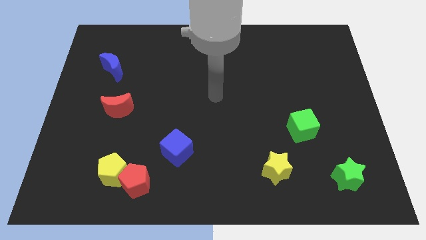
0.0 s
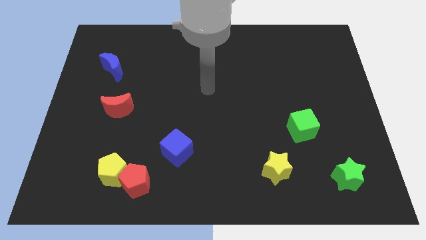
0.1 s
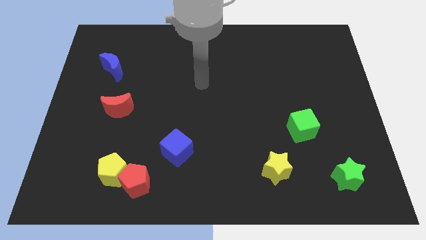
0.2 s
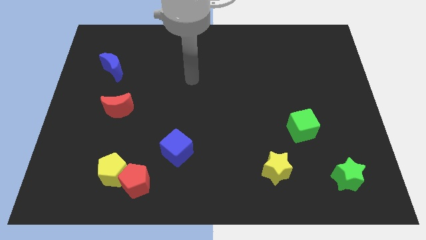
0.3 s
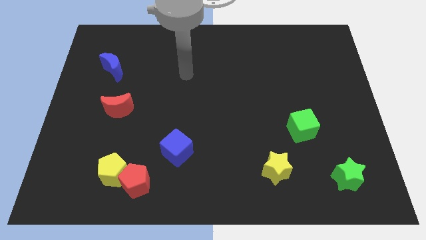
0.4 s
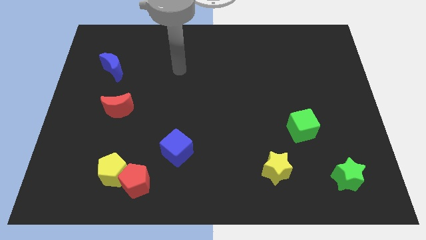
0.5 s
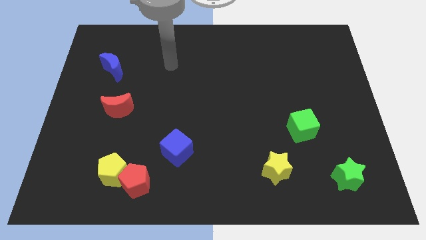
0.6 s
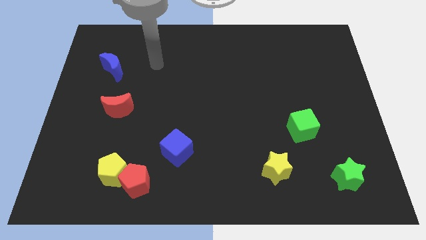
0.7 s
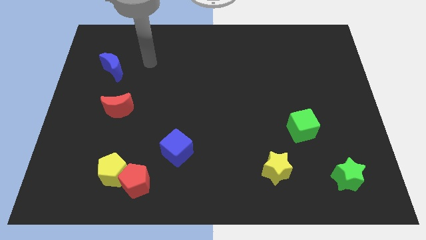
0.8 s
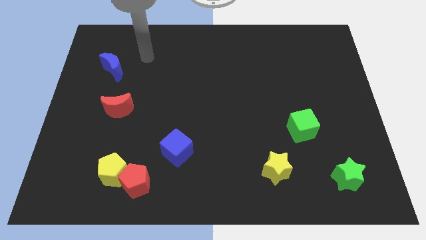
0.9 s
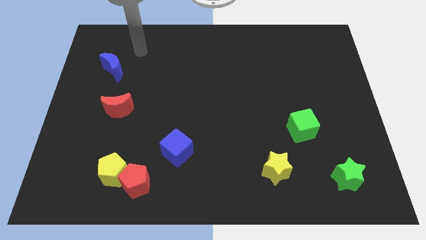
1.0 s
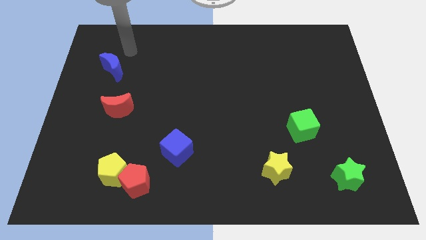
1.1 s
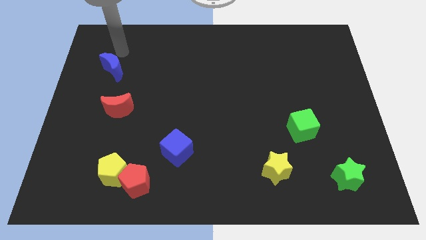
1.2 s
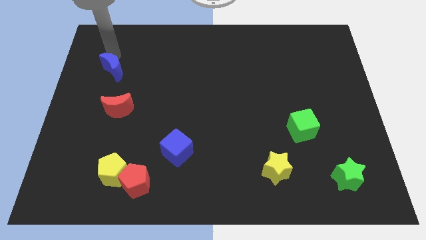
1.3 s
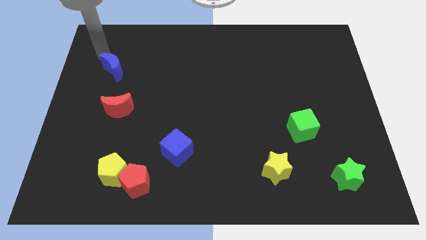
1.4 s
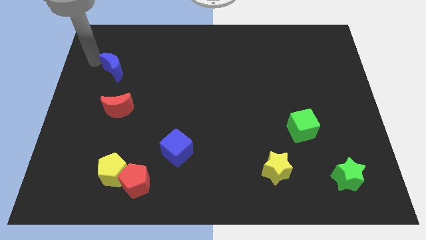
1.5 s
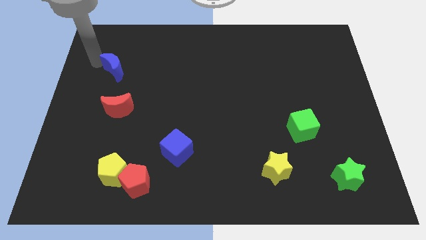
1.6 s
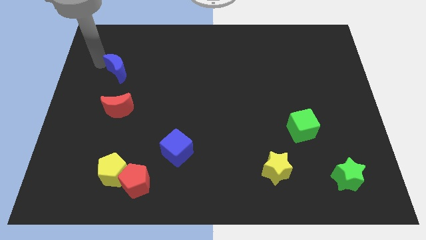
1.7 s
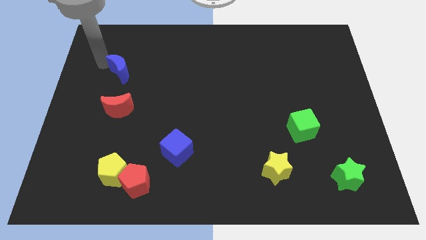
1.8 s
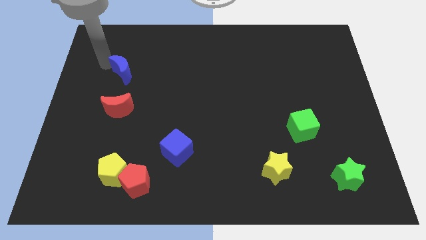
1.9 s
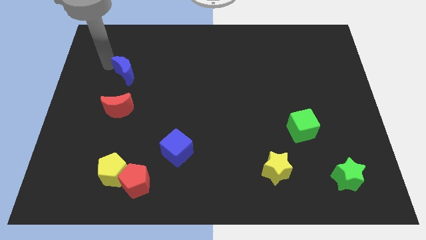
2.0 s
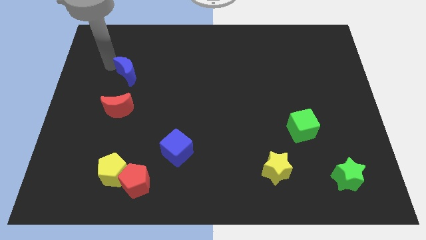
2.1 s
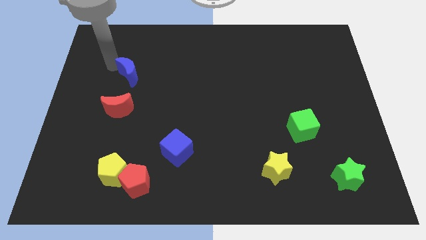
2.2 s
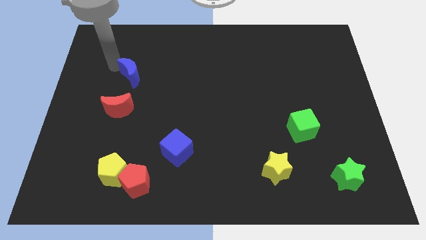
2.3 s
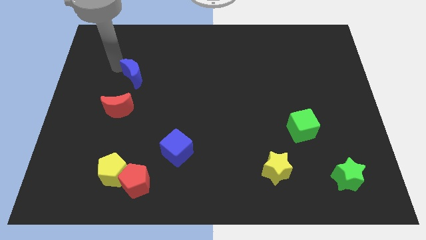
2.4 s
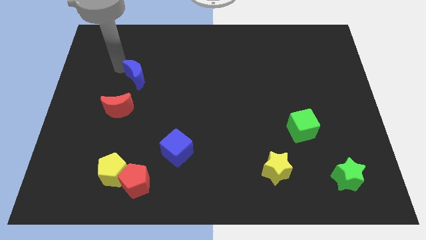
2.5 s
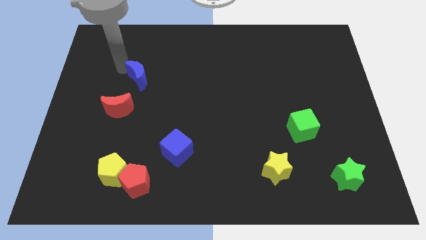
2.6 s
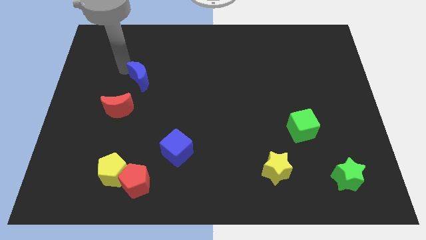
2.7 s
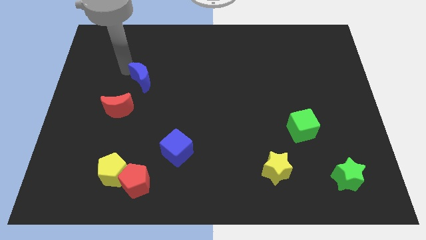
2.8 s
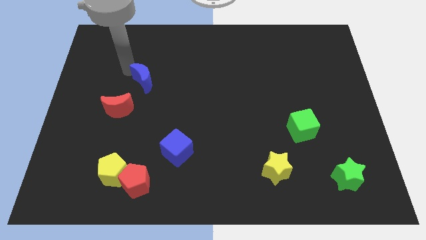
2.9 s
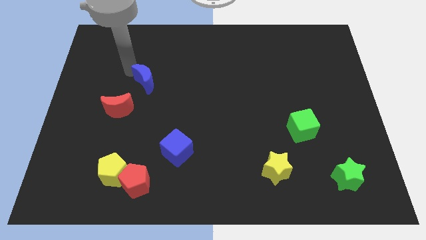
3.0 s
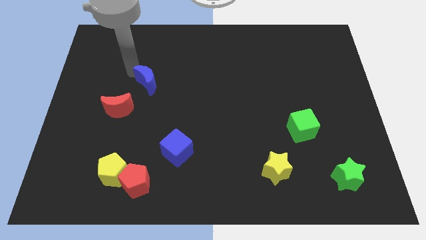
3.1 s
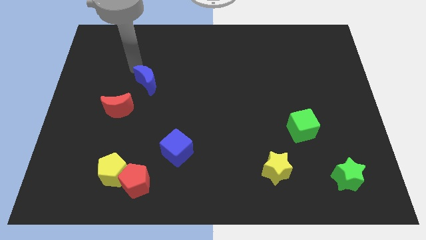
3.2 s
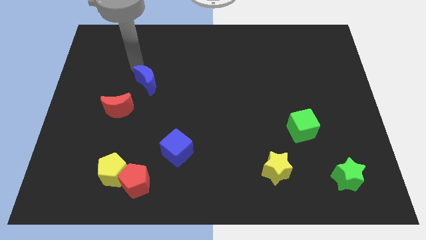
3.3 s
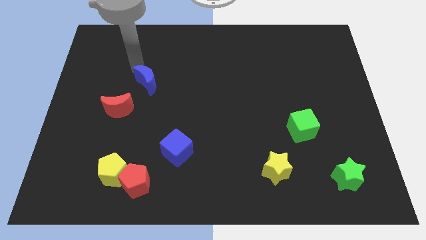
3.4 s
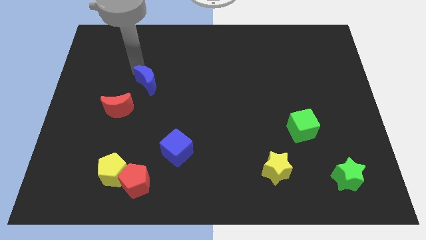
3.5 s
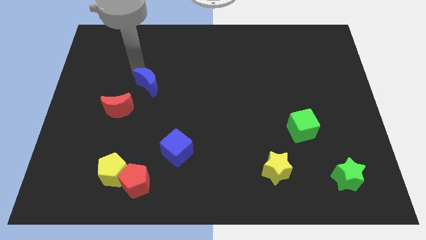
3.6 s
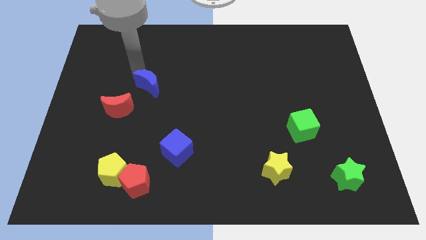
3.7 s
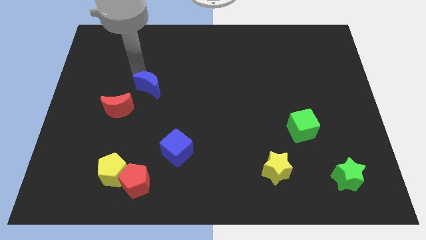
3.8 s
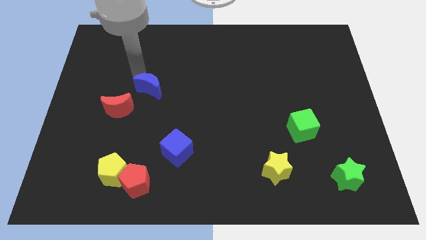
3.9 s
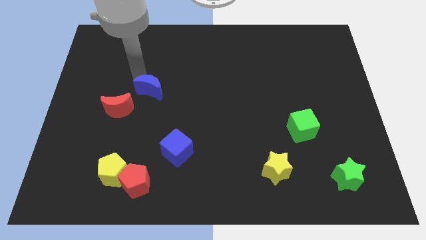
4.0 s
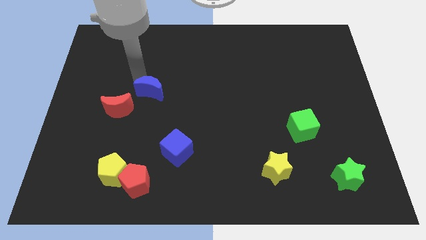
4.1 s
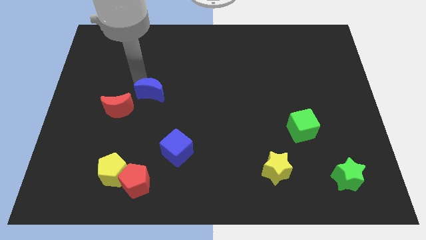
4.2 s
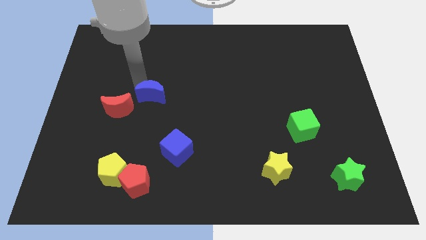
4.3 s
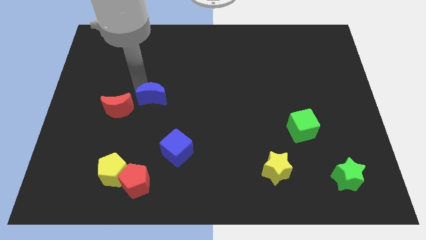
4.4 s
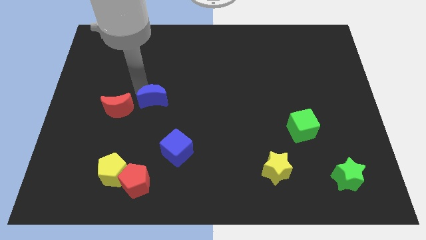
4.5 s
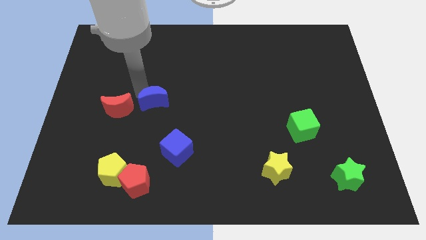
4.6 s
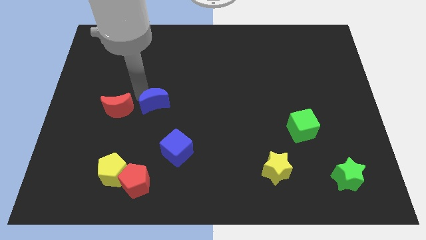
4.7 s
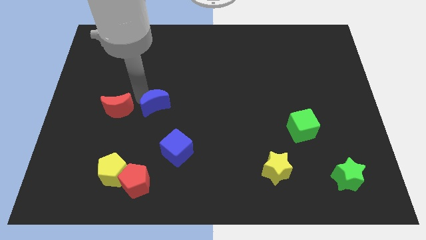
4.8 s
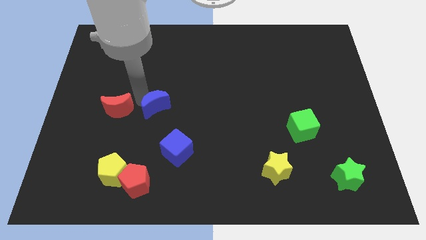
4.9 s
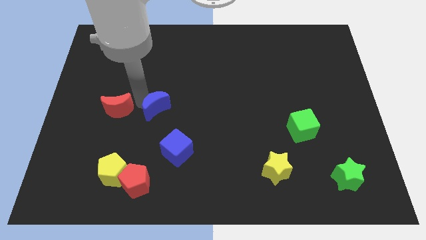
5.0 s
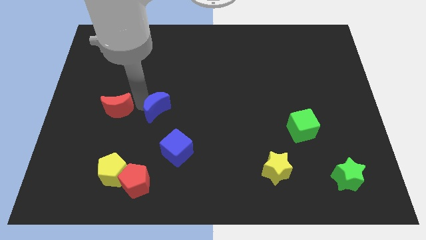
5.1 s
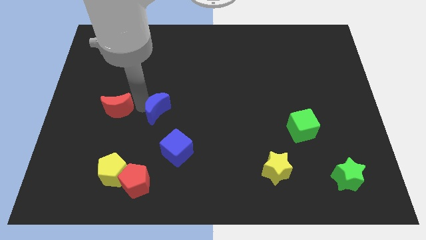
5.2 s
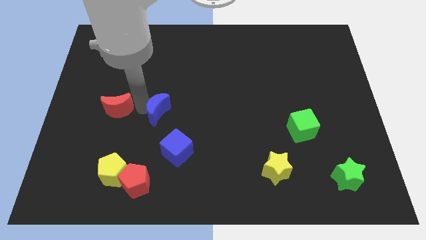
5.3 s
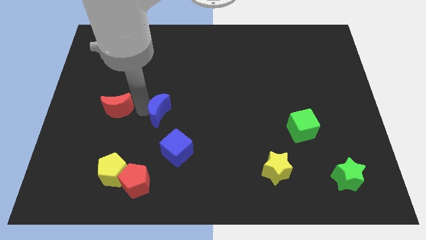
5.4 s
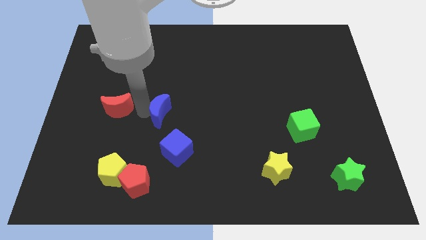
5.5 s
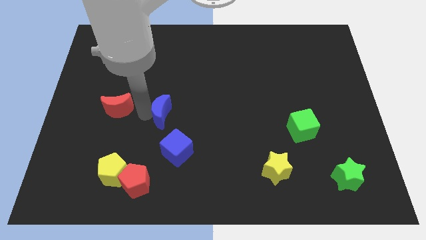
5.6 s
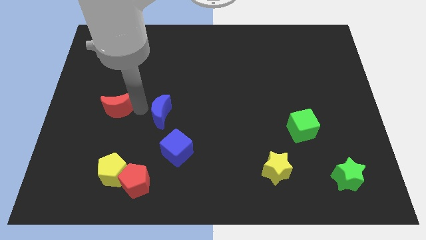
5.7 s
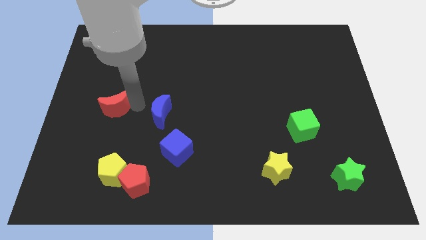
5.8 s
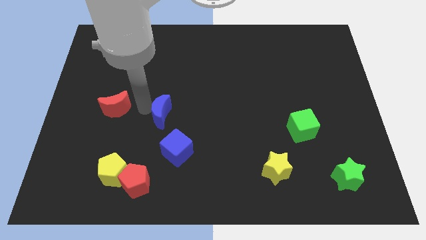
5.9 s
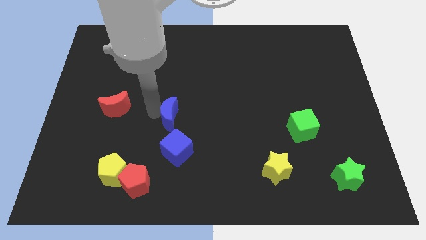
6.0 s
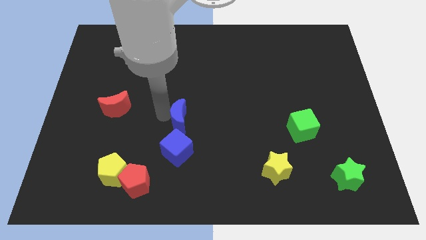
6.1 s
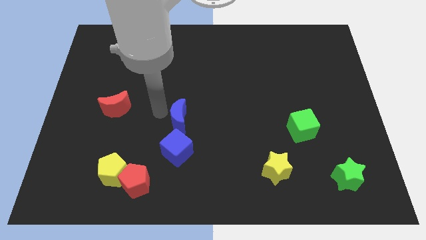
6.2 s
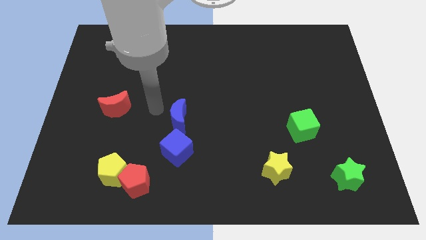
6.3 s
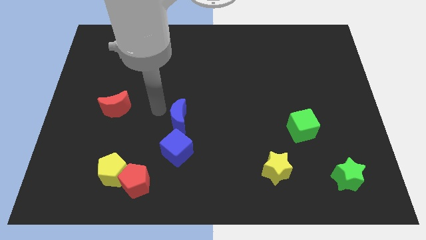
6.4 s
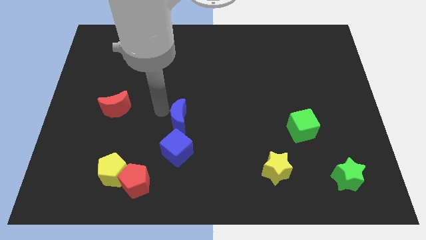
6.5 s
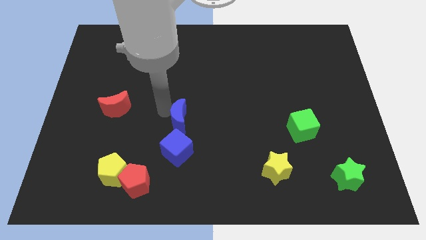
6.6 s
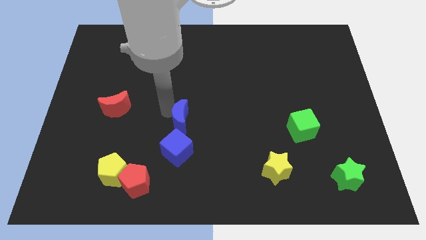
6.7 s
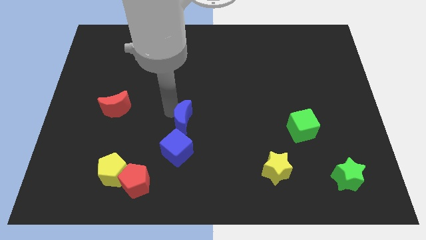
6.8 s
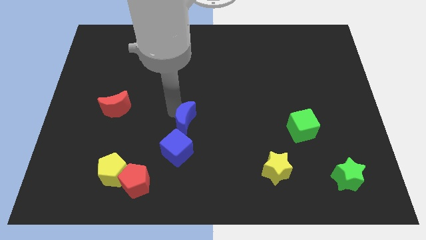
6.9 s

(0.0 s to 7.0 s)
push the blue moon to the top right side of the blue cube

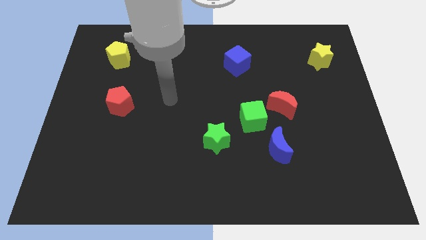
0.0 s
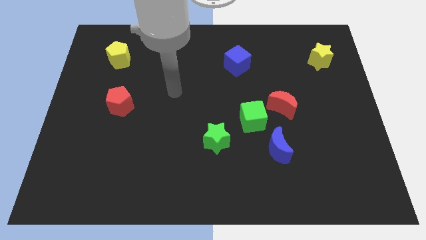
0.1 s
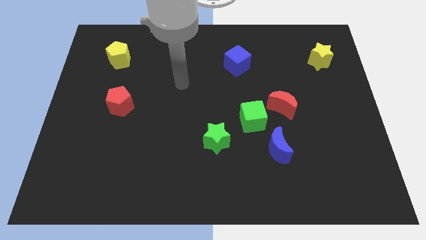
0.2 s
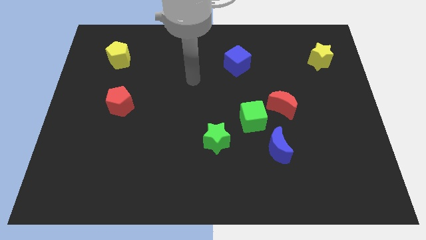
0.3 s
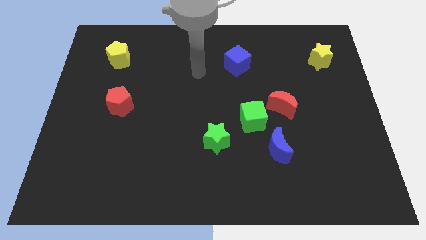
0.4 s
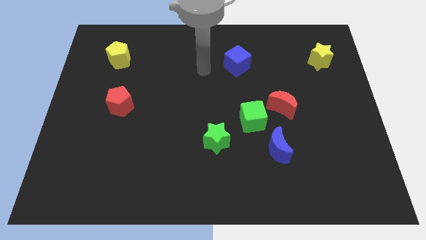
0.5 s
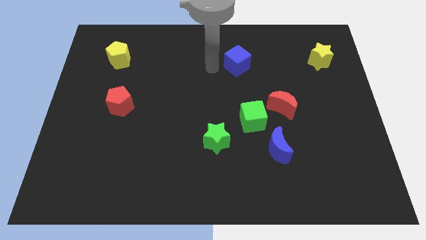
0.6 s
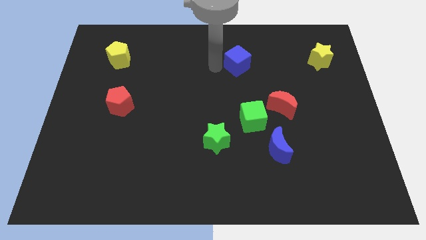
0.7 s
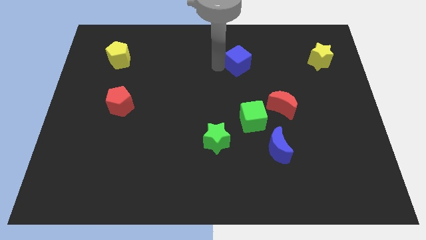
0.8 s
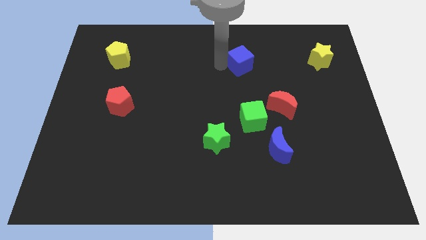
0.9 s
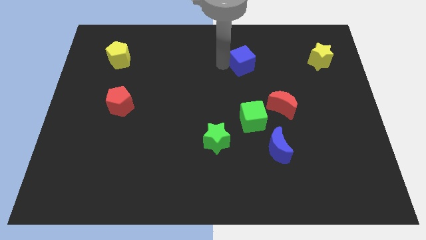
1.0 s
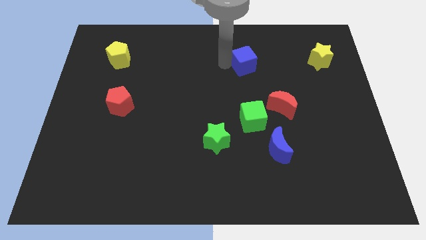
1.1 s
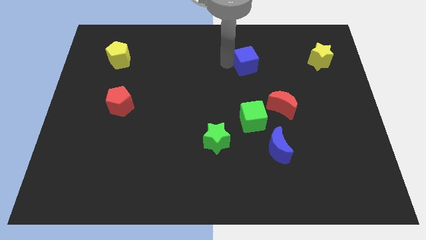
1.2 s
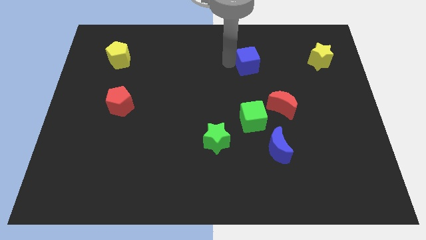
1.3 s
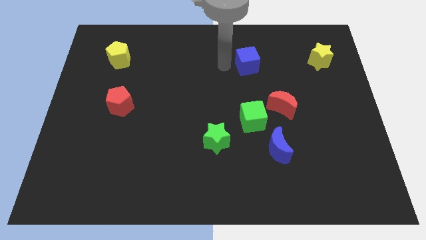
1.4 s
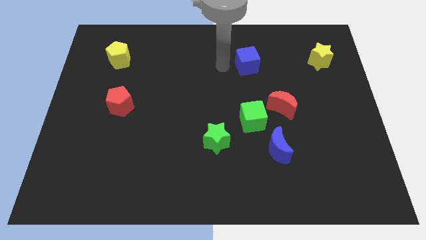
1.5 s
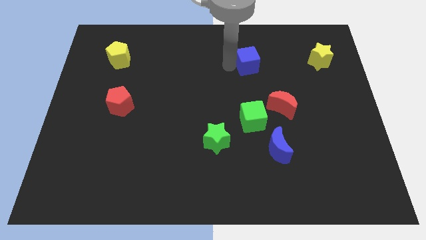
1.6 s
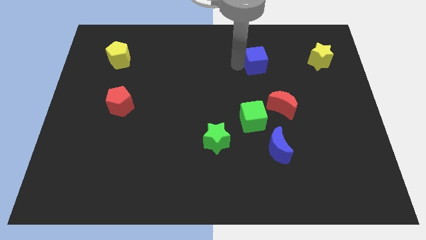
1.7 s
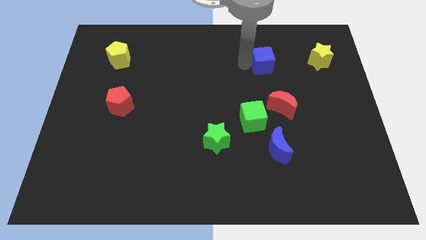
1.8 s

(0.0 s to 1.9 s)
move the blue cube just left of the yellow star
